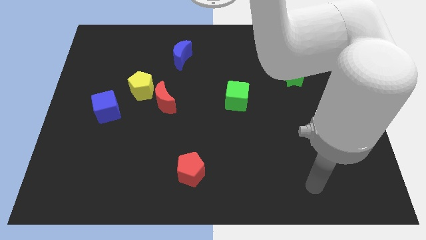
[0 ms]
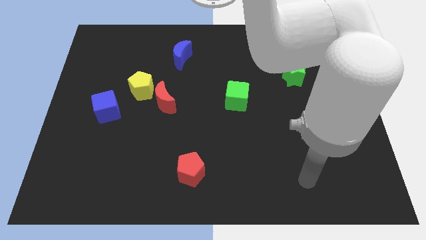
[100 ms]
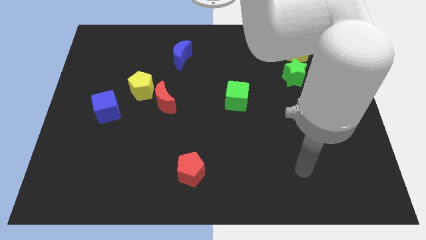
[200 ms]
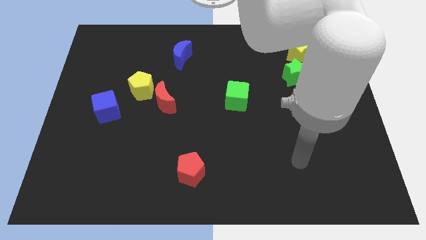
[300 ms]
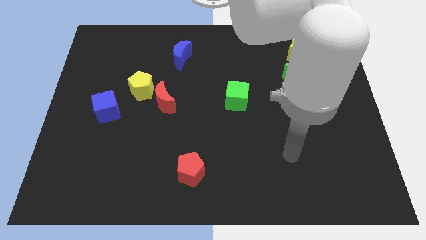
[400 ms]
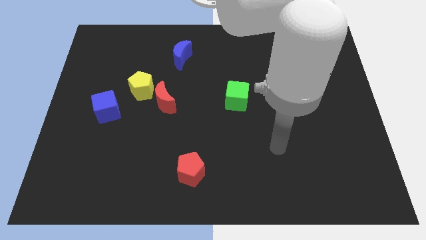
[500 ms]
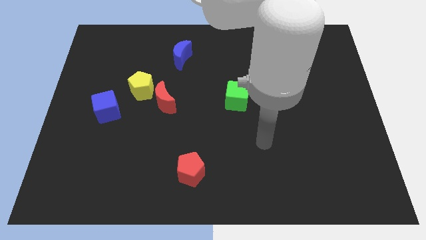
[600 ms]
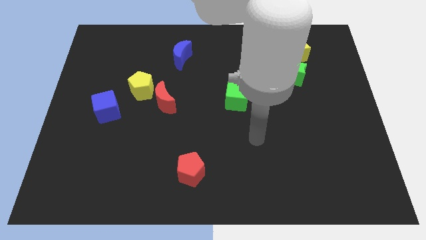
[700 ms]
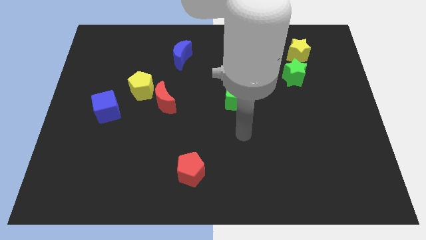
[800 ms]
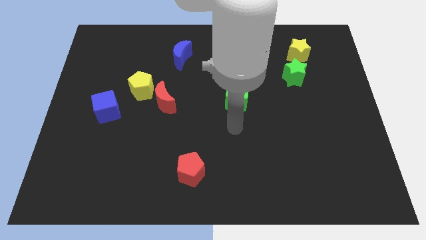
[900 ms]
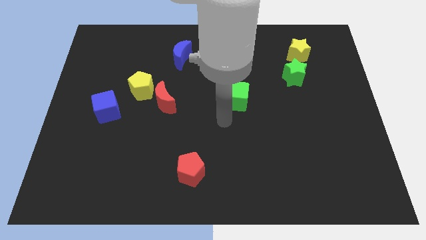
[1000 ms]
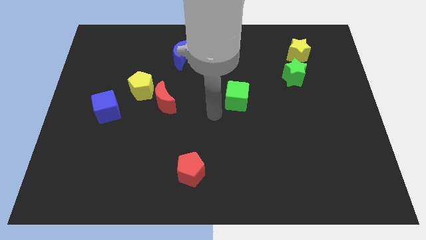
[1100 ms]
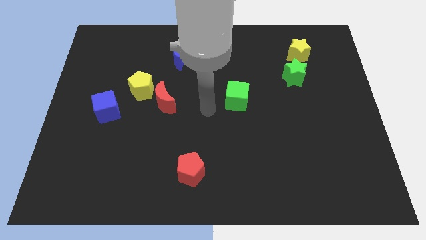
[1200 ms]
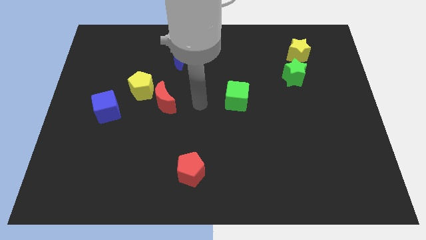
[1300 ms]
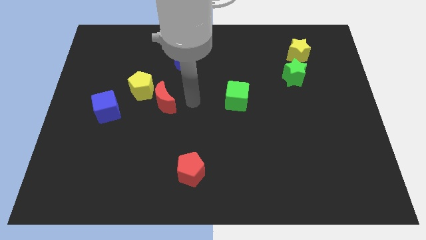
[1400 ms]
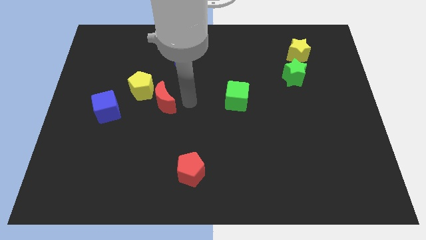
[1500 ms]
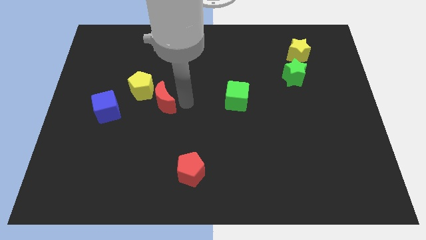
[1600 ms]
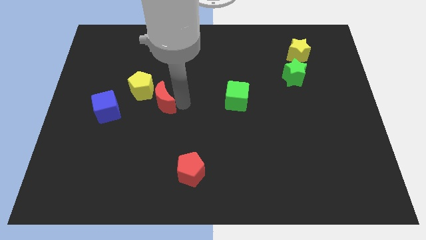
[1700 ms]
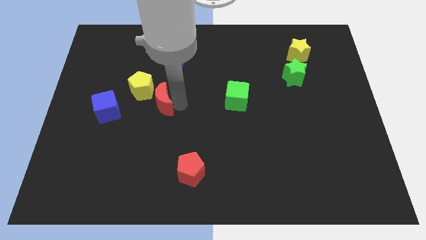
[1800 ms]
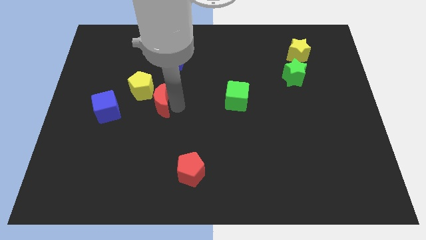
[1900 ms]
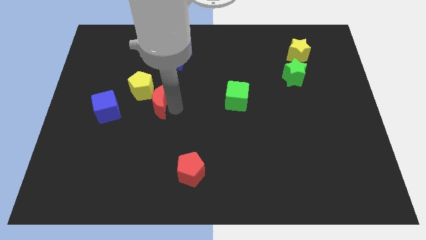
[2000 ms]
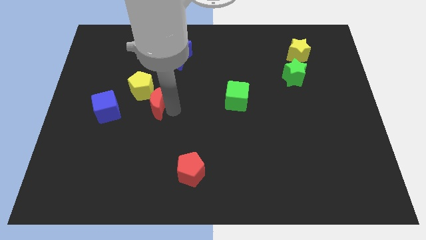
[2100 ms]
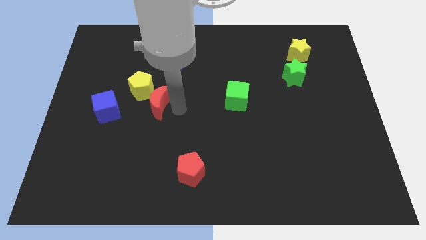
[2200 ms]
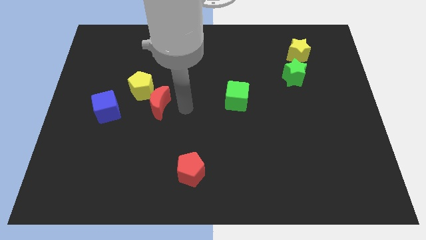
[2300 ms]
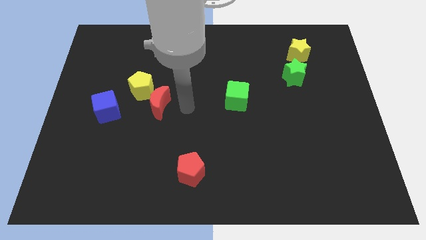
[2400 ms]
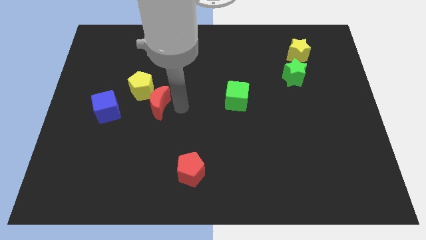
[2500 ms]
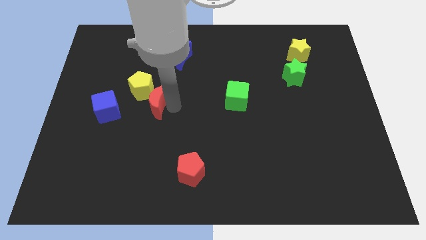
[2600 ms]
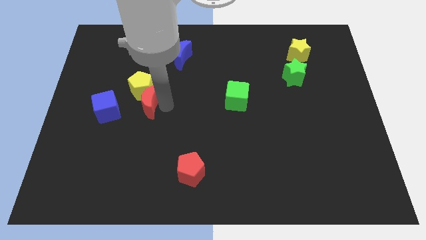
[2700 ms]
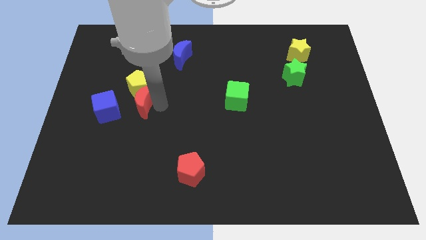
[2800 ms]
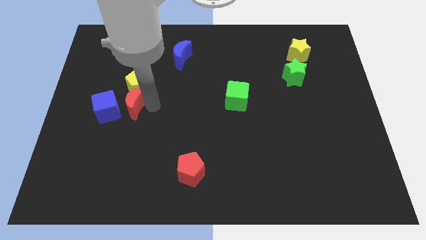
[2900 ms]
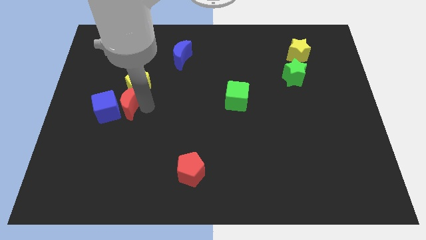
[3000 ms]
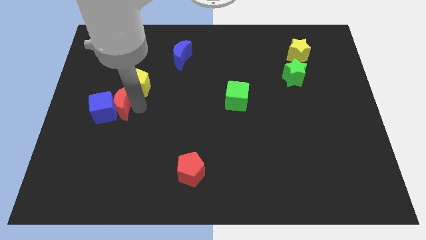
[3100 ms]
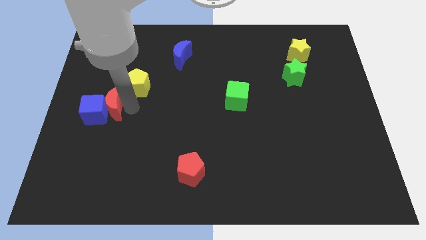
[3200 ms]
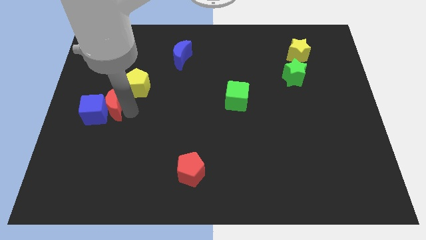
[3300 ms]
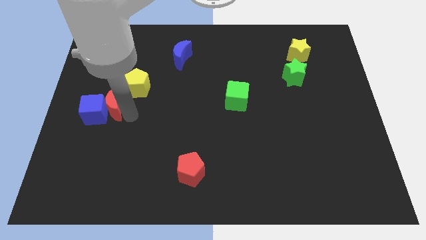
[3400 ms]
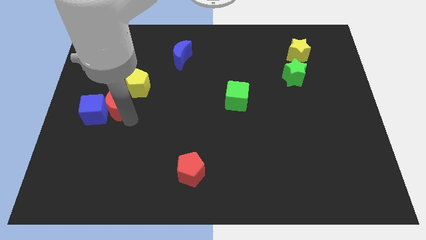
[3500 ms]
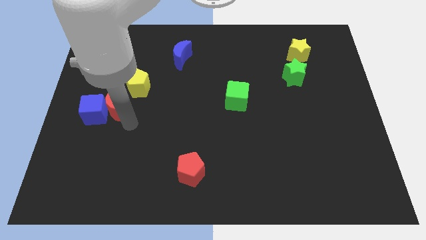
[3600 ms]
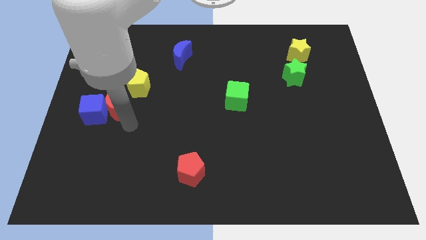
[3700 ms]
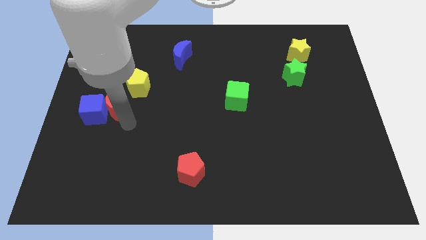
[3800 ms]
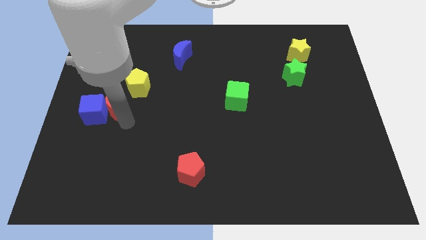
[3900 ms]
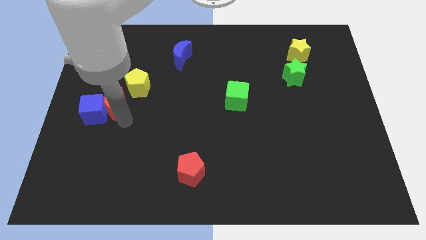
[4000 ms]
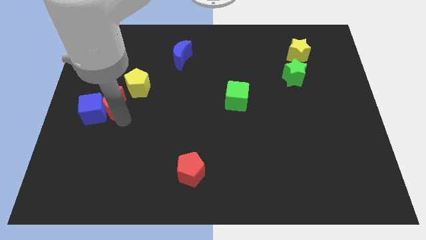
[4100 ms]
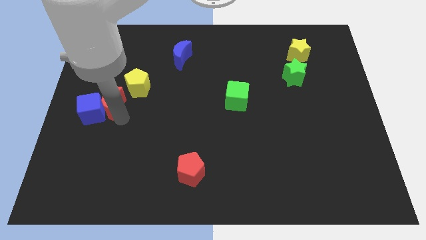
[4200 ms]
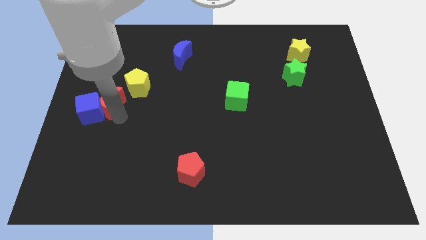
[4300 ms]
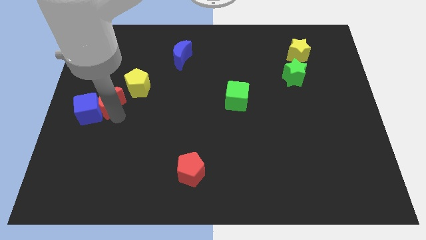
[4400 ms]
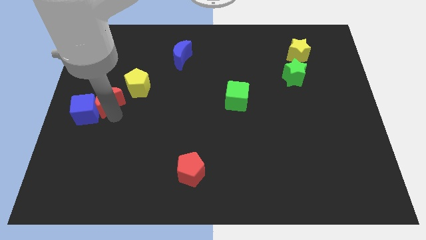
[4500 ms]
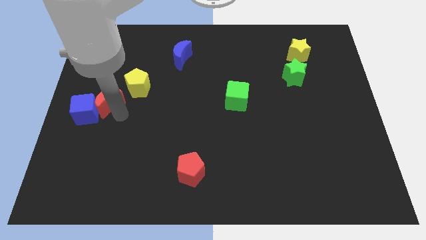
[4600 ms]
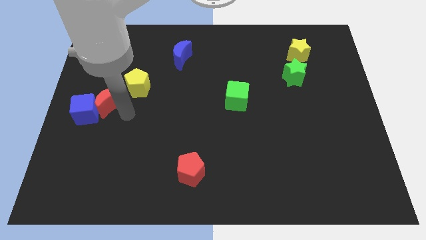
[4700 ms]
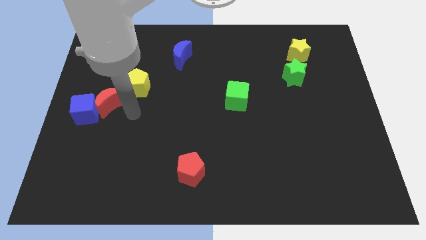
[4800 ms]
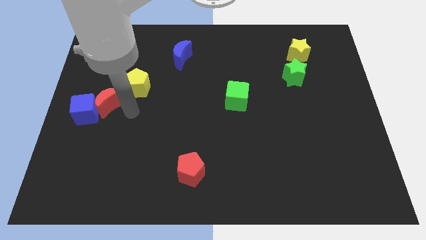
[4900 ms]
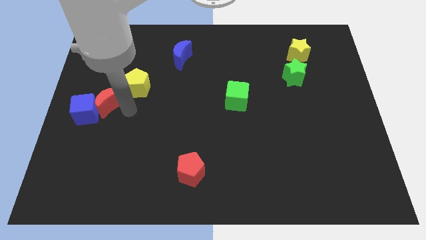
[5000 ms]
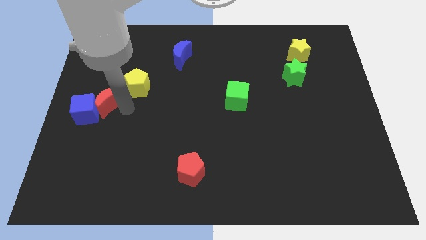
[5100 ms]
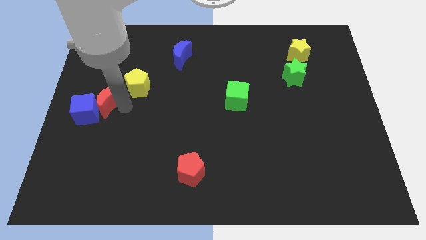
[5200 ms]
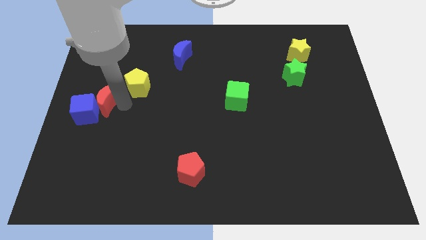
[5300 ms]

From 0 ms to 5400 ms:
put the red moon to the left side
